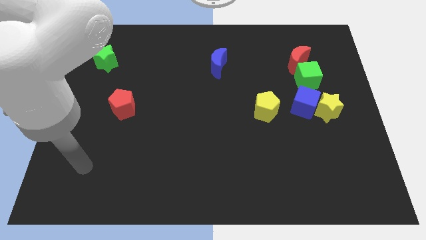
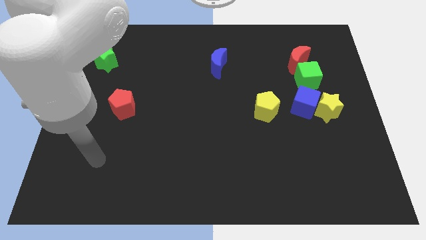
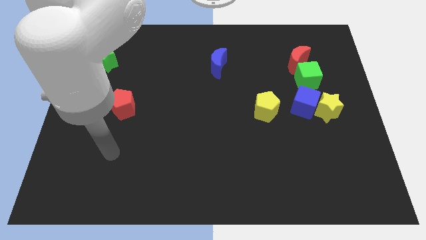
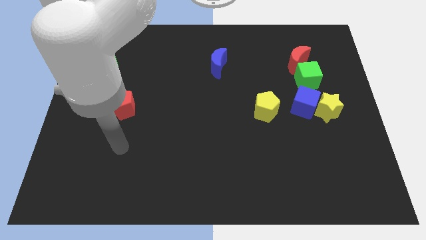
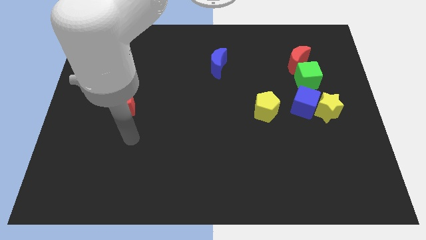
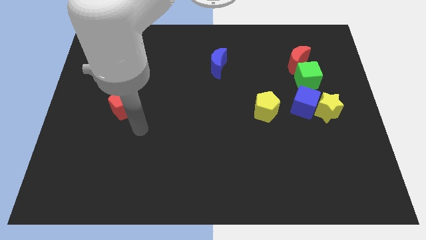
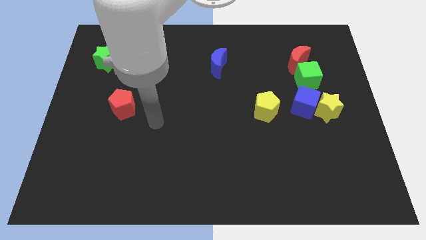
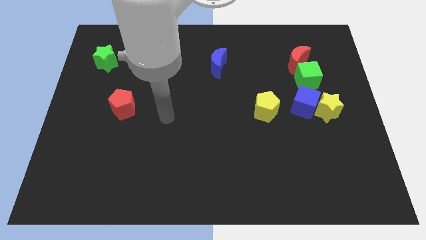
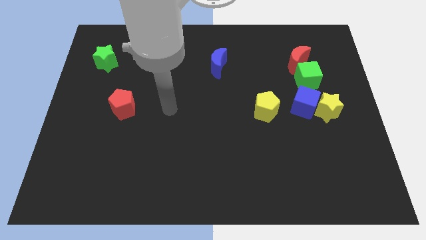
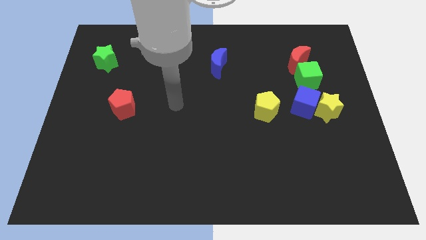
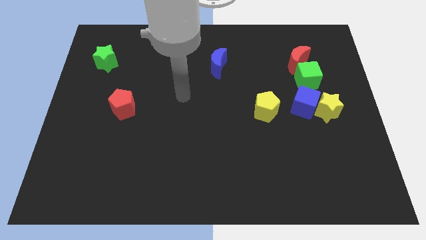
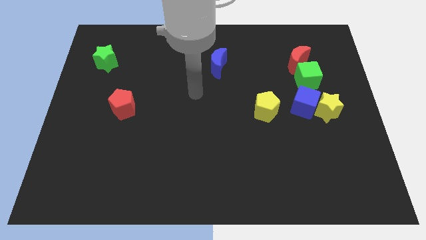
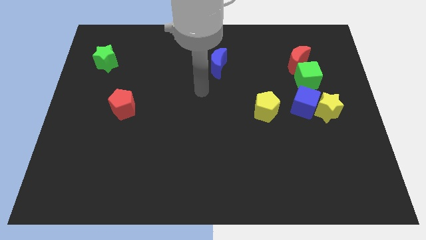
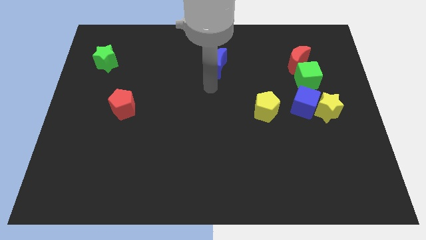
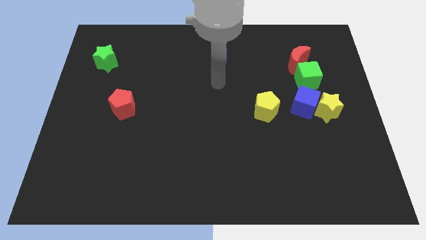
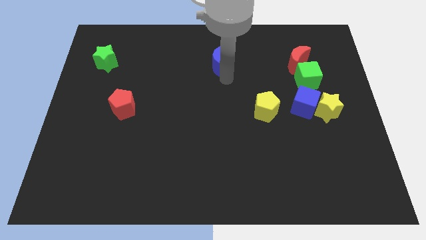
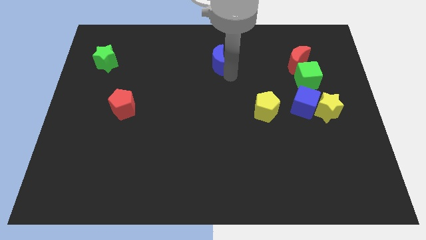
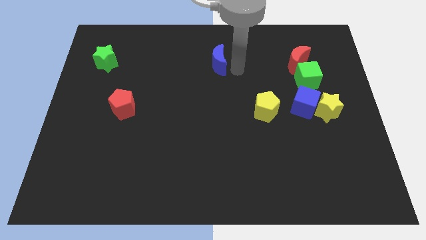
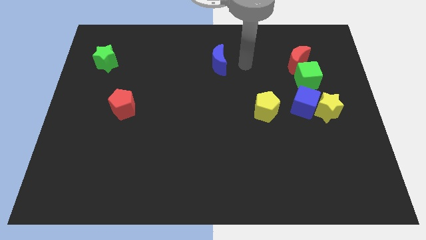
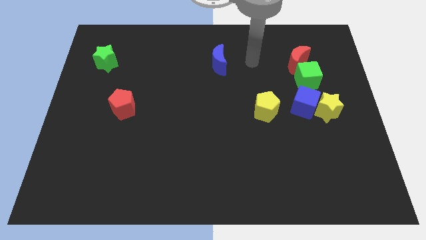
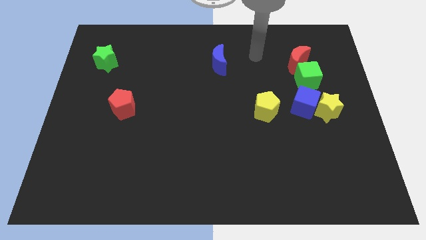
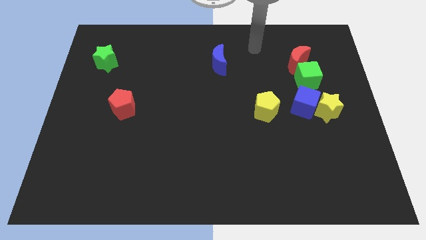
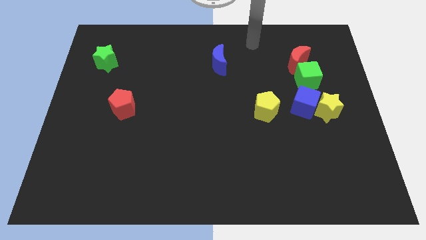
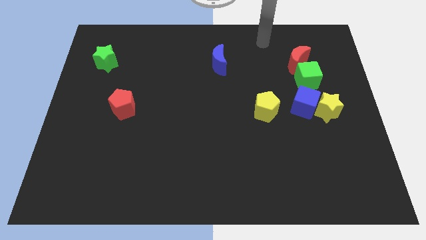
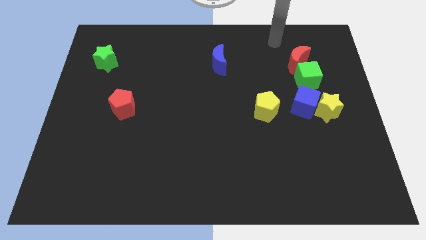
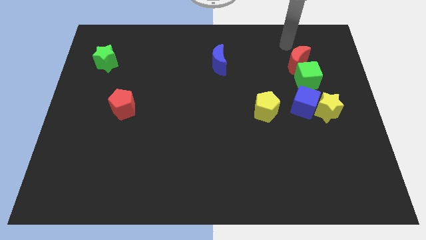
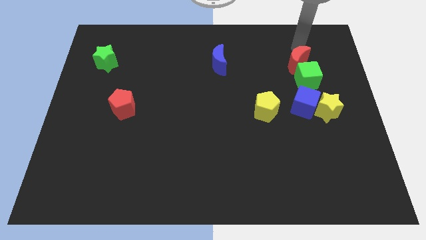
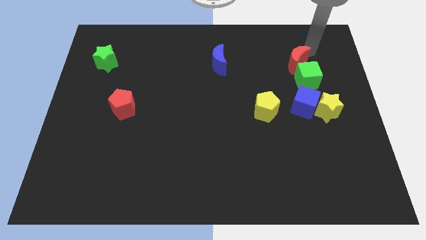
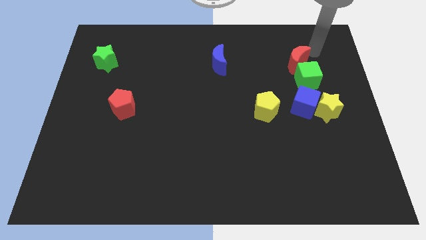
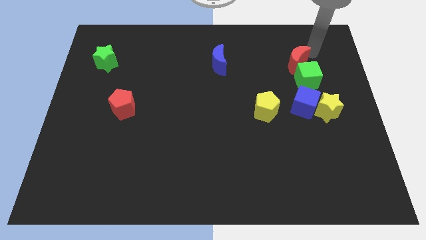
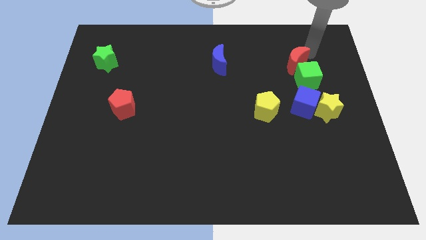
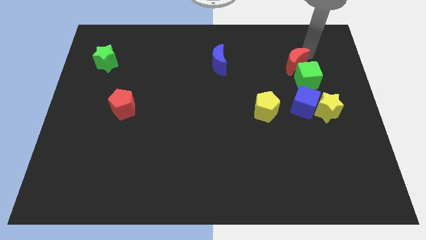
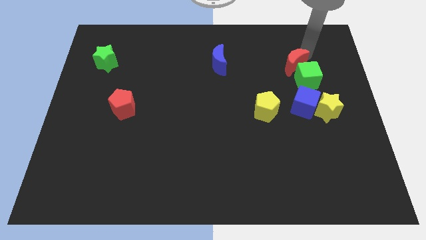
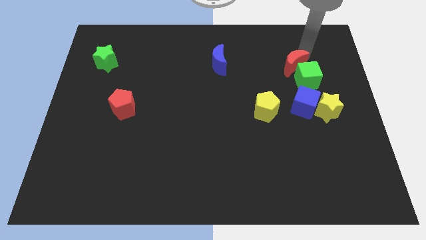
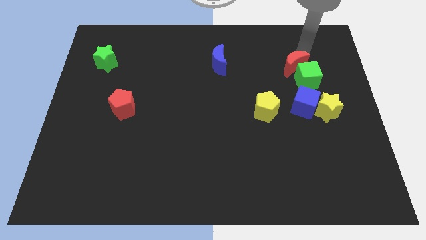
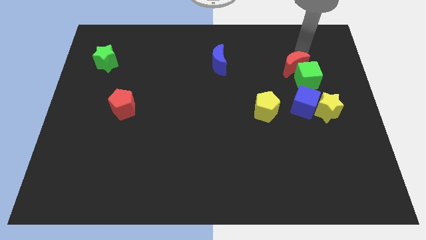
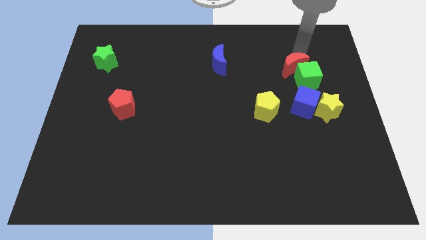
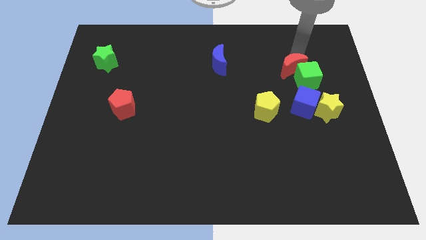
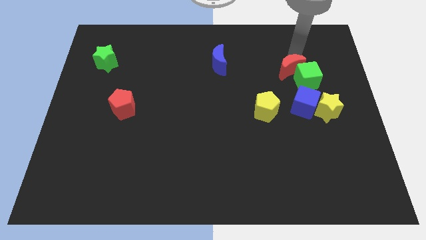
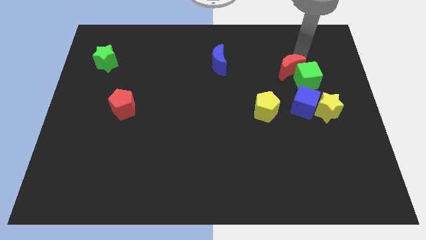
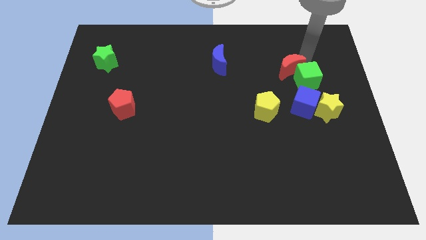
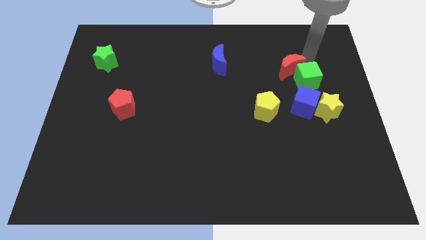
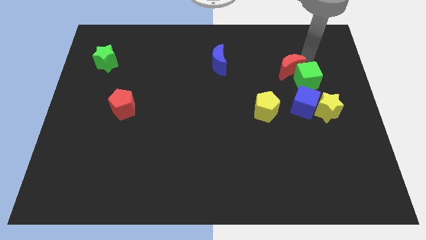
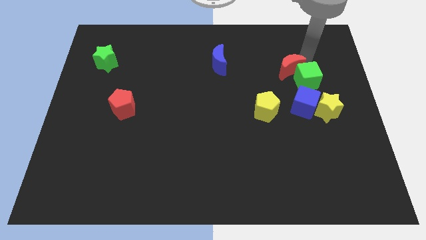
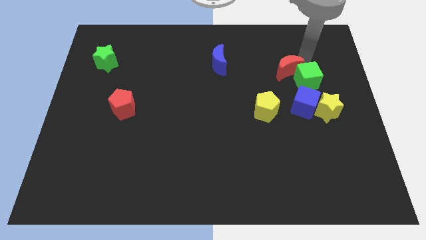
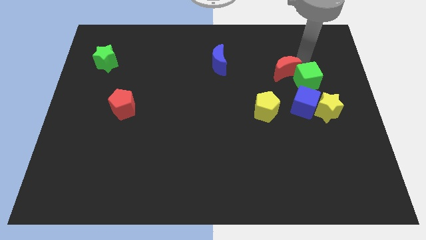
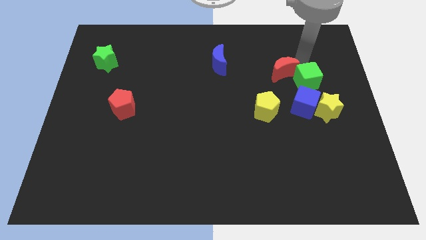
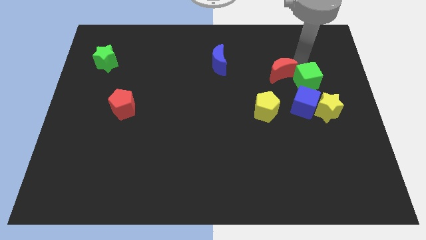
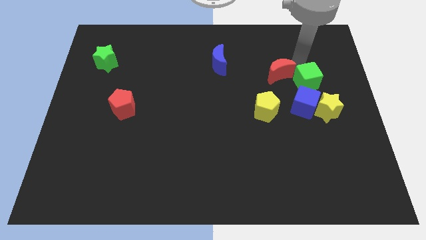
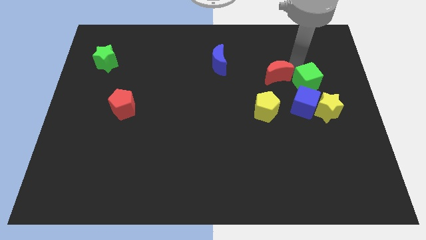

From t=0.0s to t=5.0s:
slide the red moon a little bit downwards and left

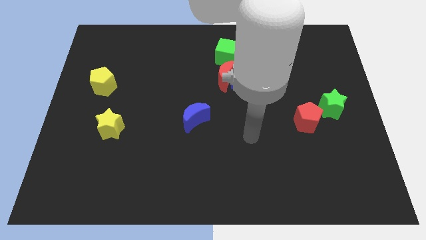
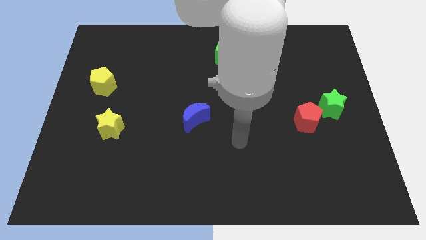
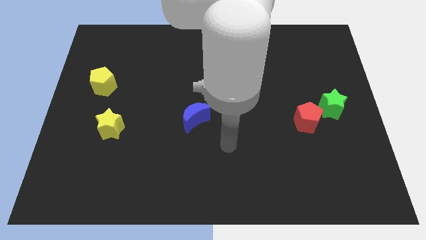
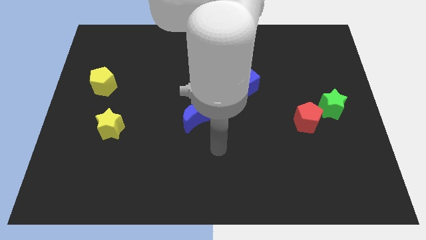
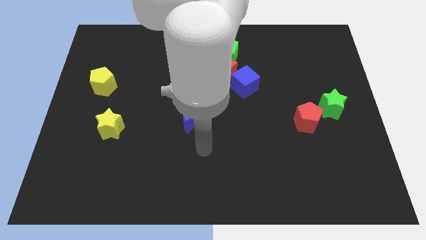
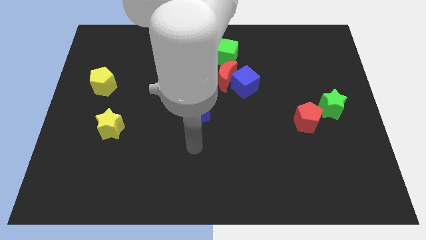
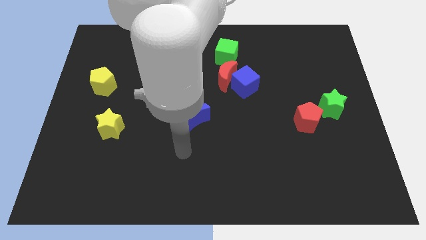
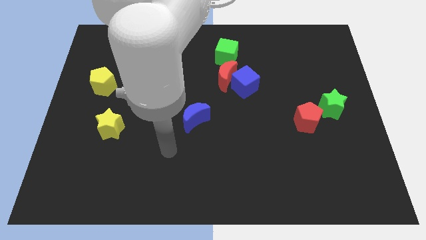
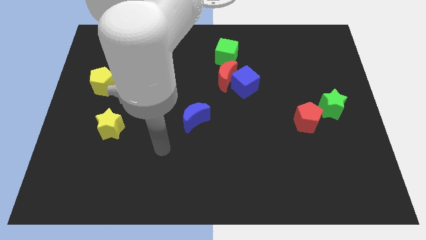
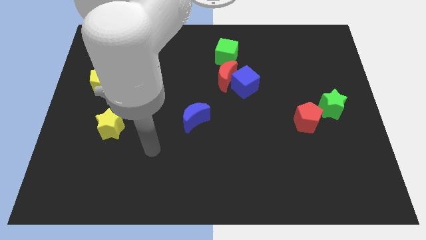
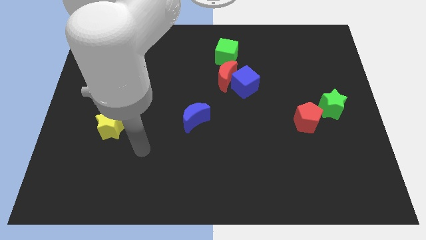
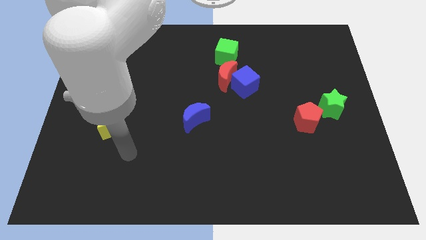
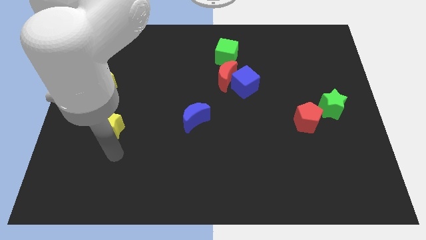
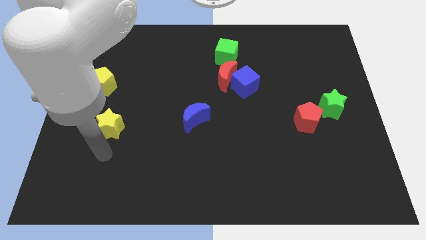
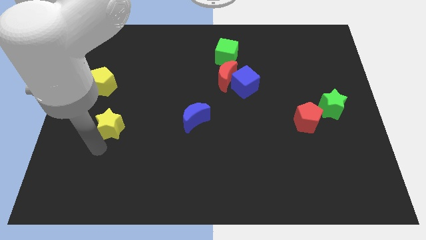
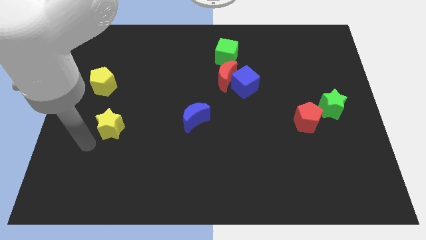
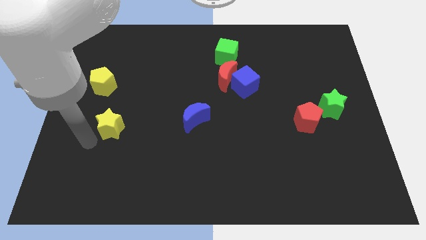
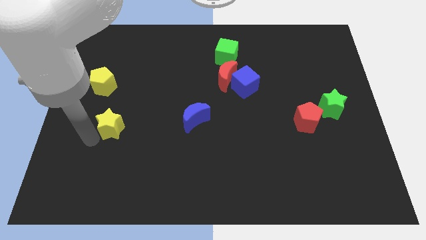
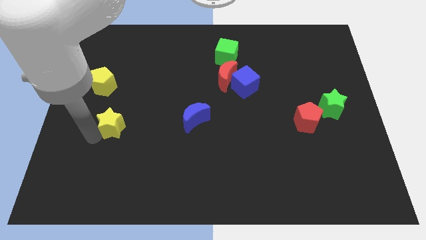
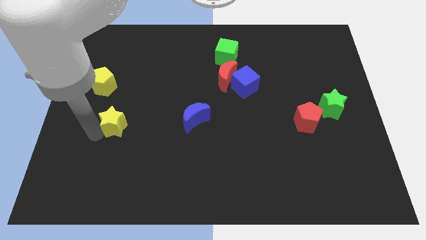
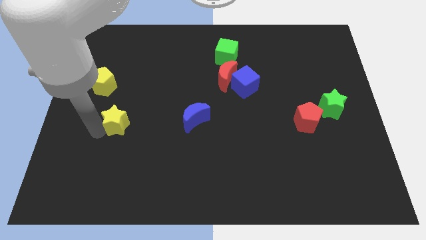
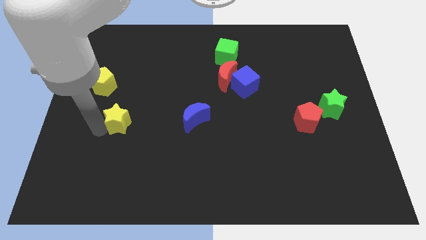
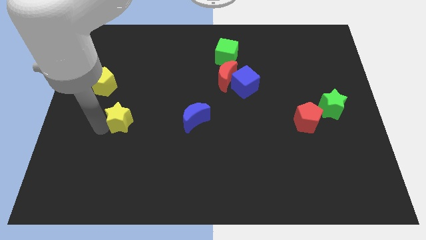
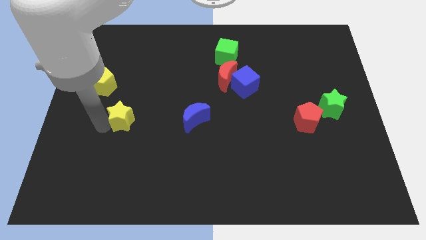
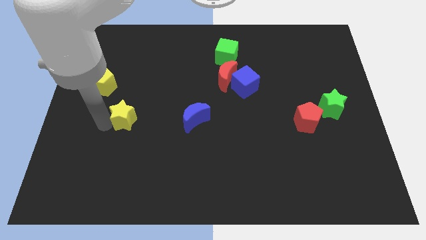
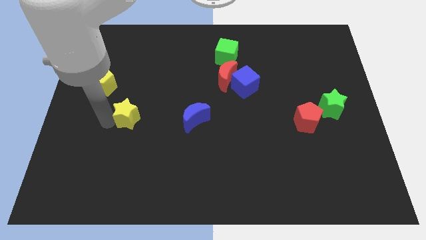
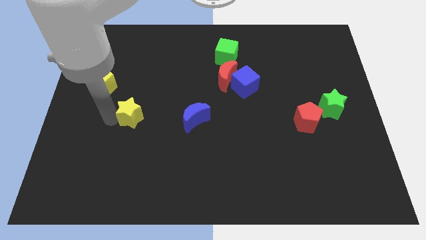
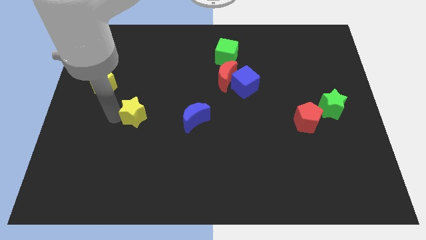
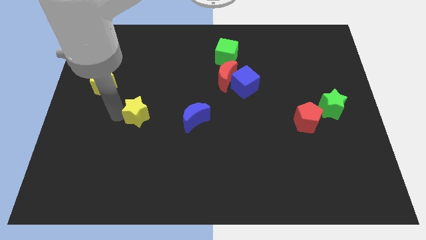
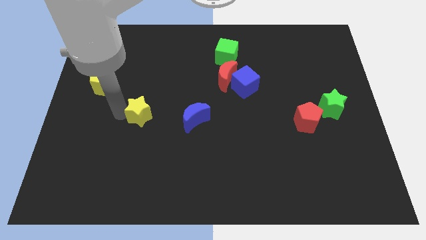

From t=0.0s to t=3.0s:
push the yellow star up and right slightly
